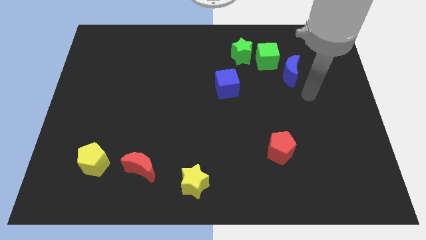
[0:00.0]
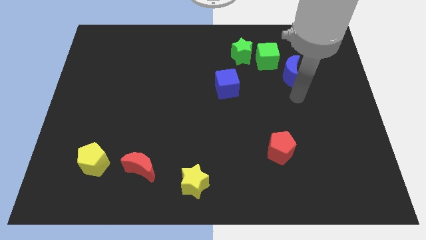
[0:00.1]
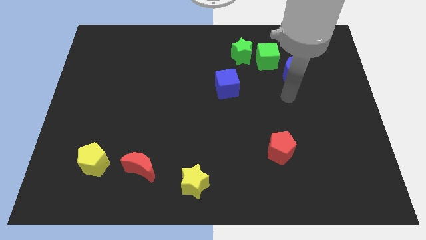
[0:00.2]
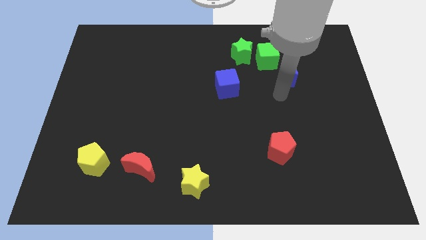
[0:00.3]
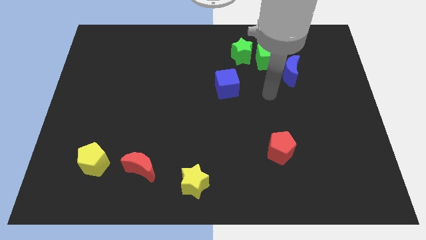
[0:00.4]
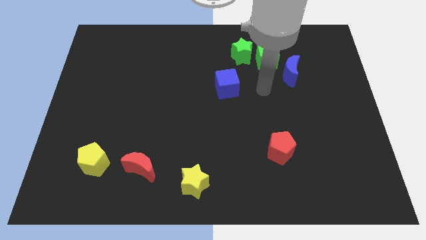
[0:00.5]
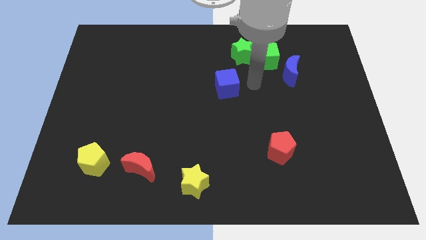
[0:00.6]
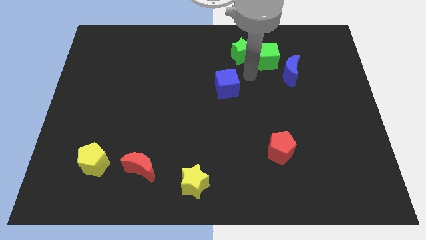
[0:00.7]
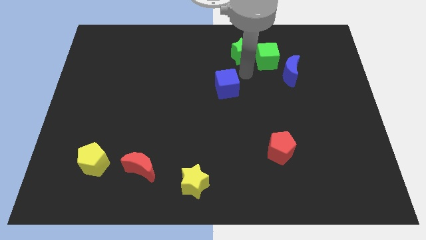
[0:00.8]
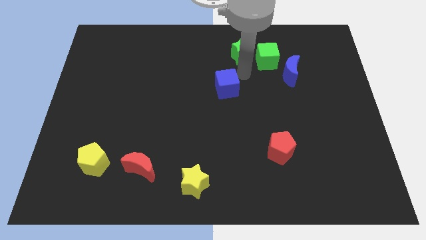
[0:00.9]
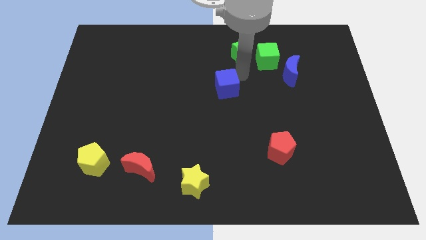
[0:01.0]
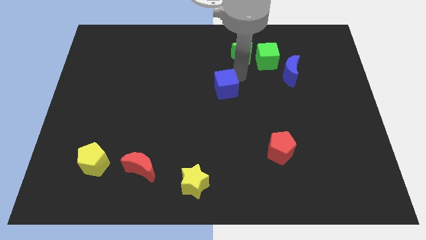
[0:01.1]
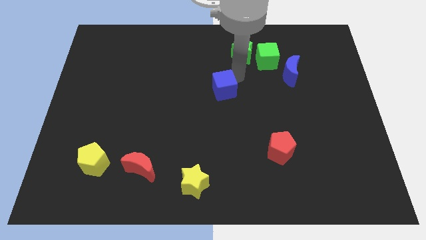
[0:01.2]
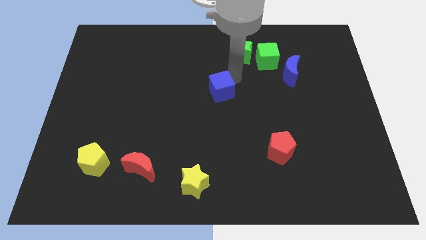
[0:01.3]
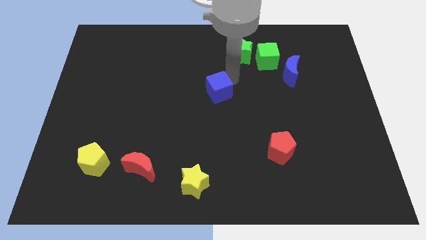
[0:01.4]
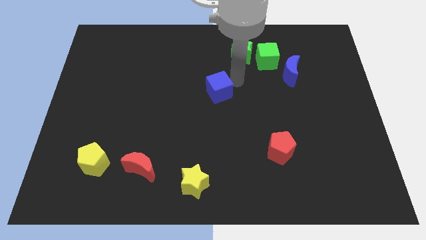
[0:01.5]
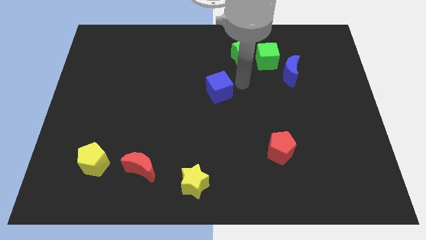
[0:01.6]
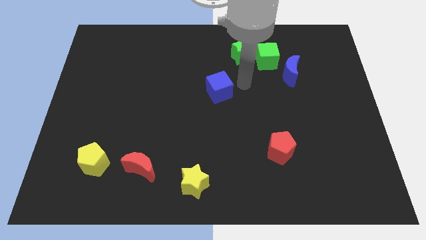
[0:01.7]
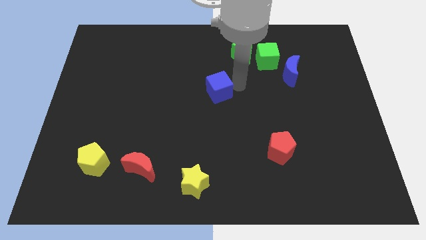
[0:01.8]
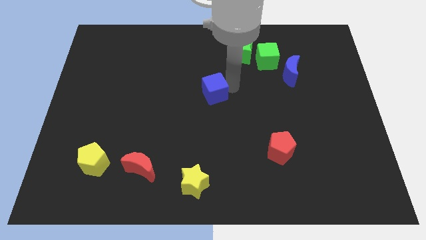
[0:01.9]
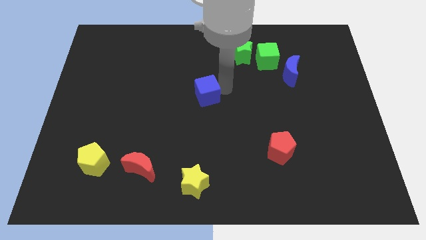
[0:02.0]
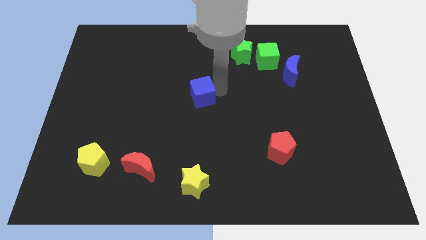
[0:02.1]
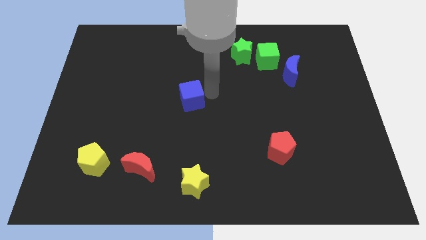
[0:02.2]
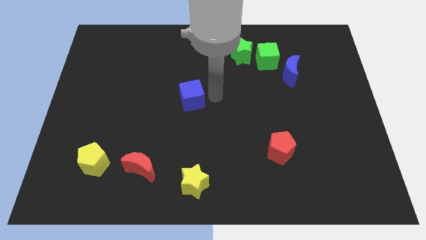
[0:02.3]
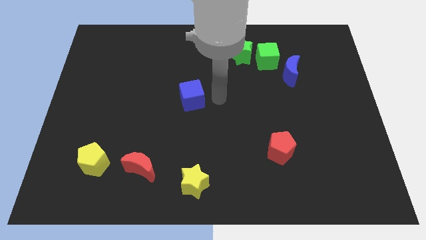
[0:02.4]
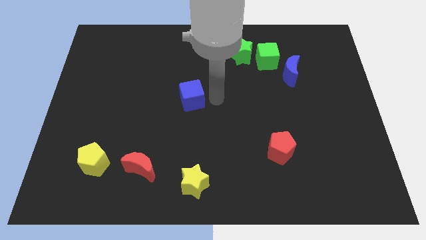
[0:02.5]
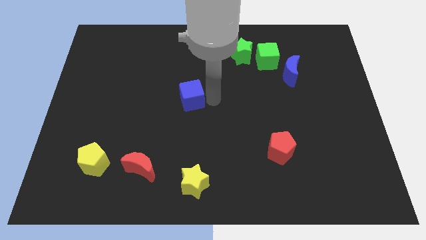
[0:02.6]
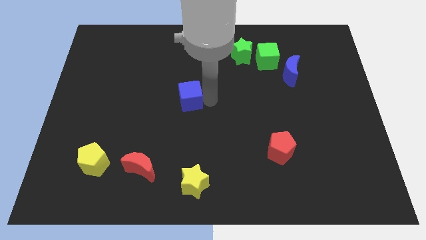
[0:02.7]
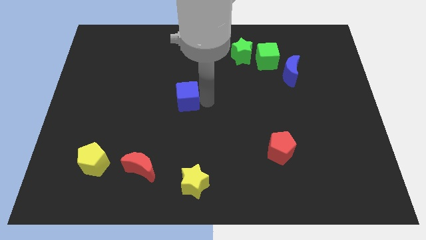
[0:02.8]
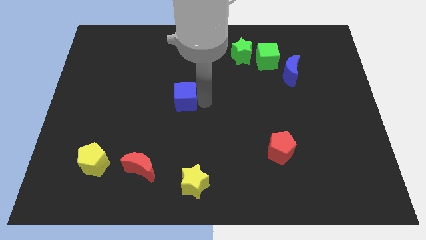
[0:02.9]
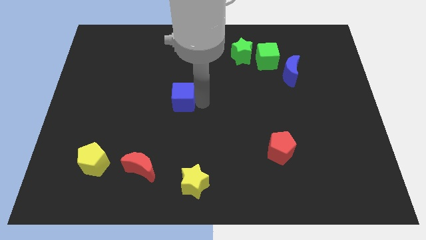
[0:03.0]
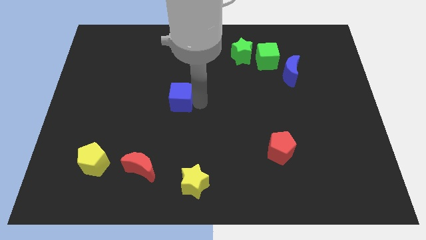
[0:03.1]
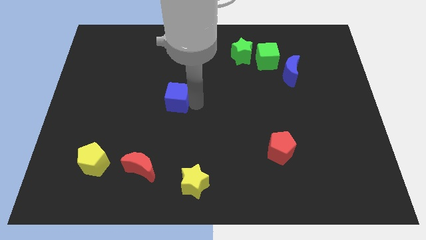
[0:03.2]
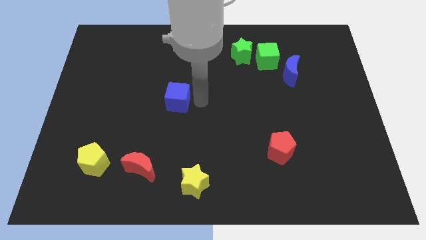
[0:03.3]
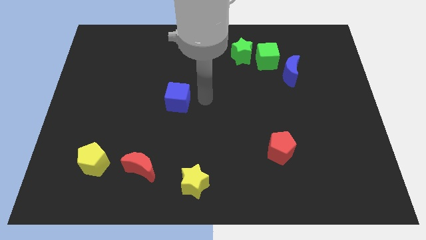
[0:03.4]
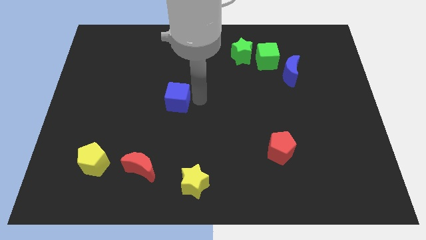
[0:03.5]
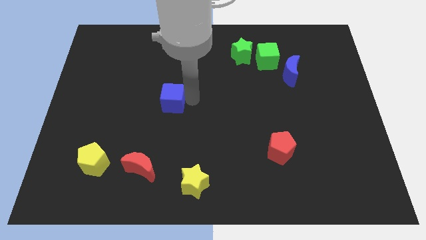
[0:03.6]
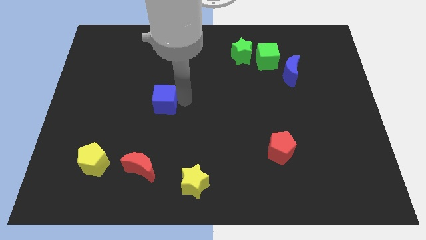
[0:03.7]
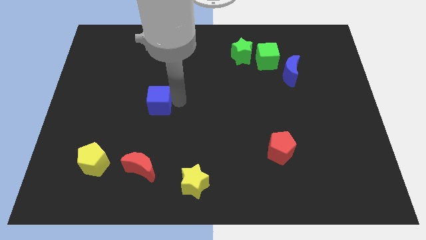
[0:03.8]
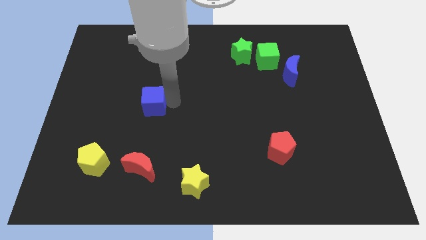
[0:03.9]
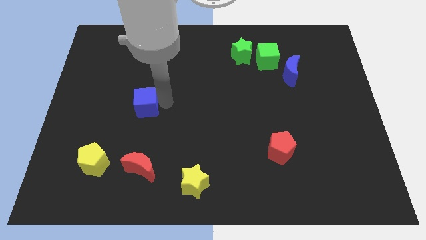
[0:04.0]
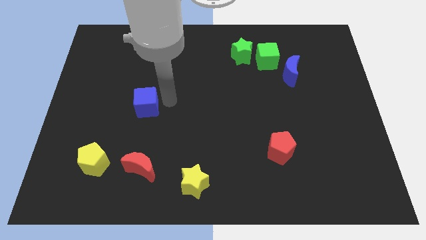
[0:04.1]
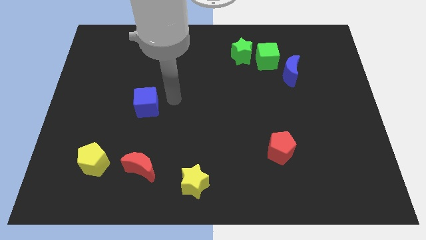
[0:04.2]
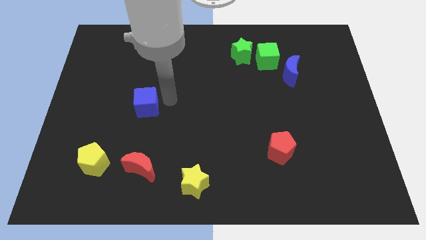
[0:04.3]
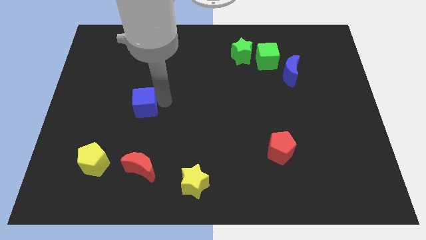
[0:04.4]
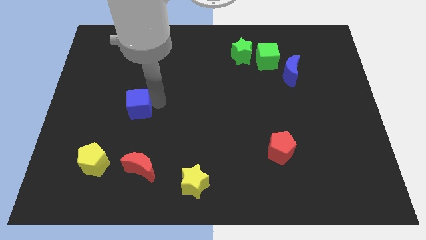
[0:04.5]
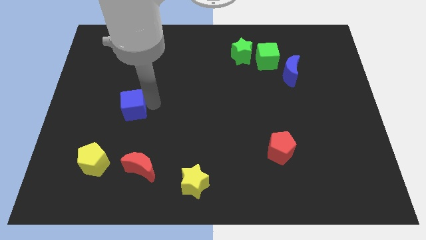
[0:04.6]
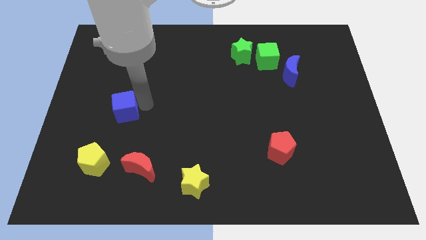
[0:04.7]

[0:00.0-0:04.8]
move the blue cube to the top side of the yellow pentagon

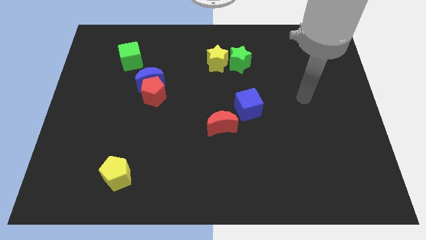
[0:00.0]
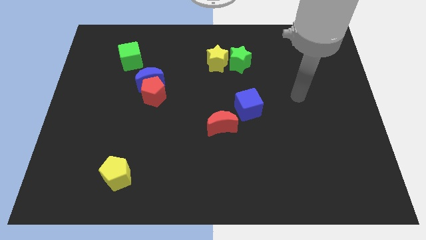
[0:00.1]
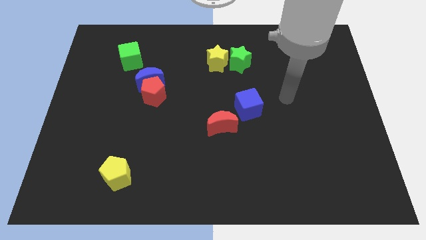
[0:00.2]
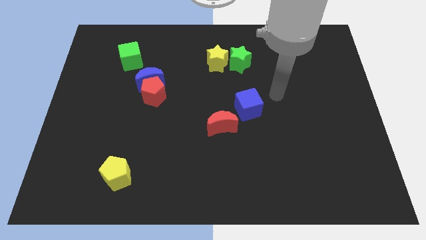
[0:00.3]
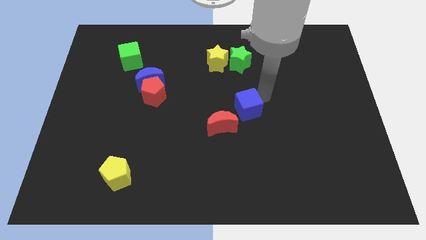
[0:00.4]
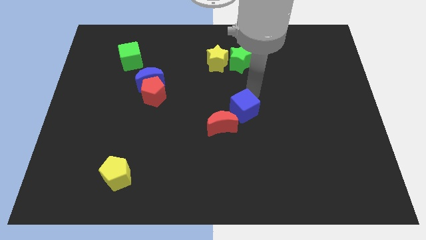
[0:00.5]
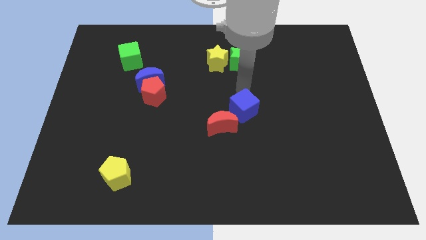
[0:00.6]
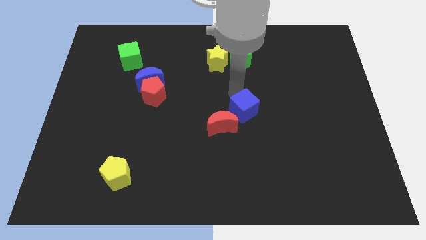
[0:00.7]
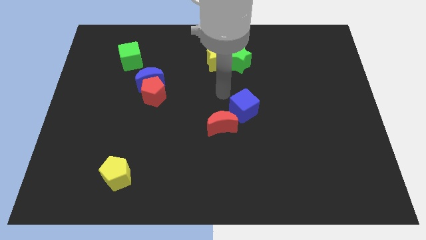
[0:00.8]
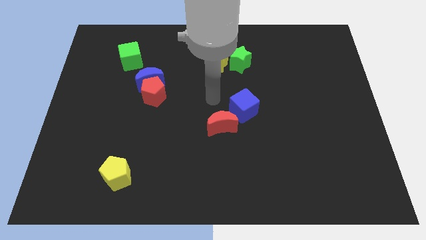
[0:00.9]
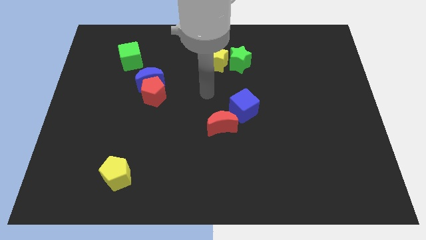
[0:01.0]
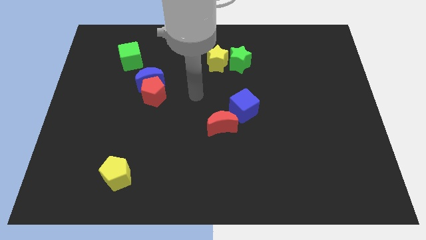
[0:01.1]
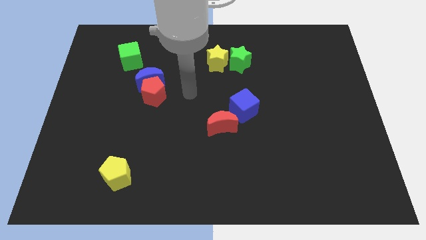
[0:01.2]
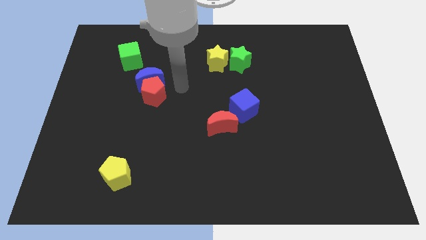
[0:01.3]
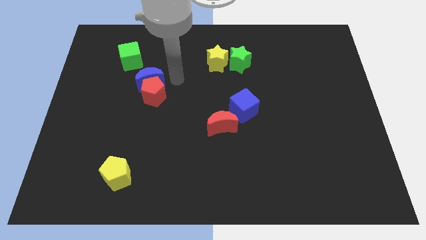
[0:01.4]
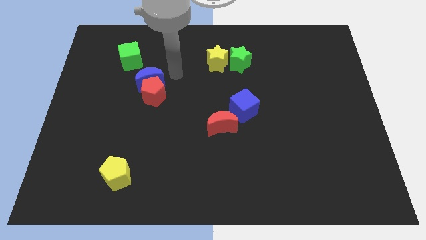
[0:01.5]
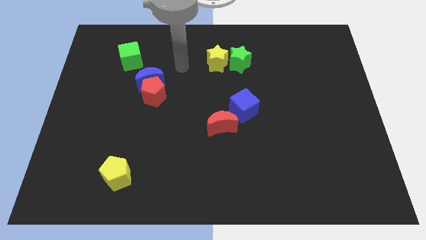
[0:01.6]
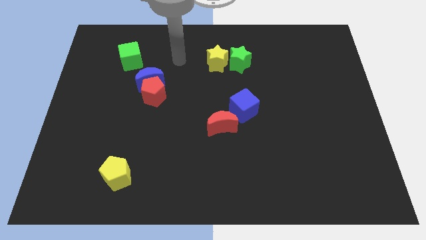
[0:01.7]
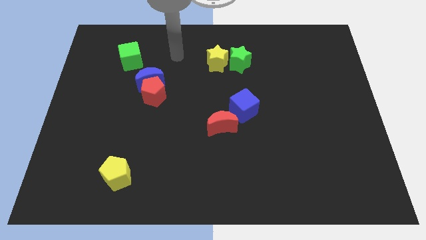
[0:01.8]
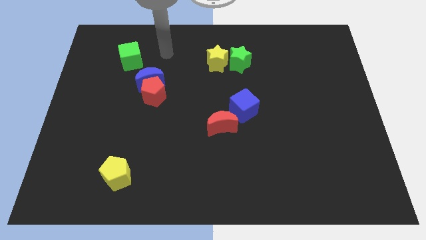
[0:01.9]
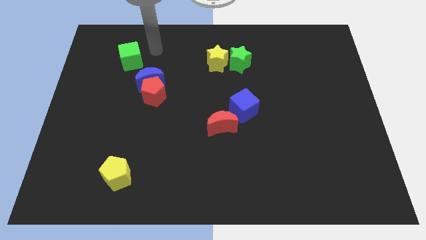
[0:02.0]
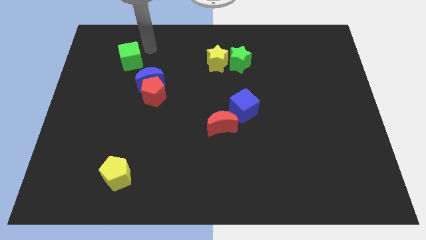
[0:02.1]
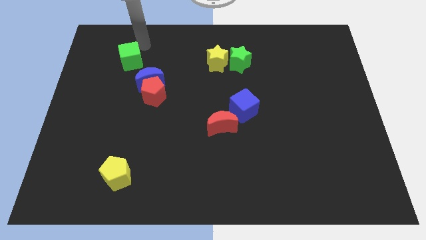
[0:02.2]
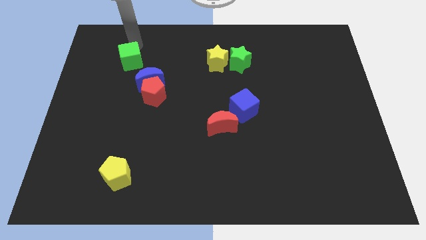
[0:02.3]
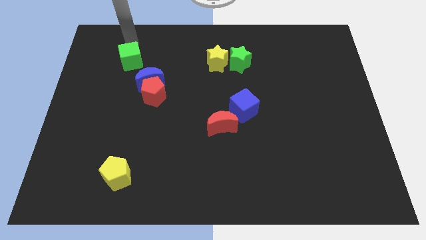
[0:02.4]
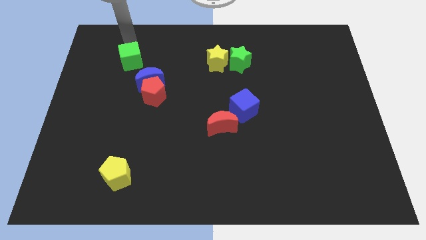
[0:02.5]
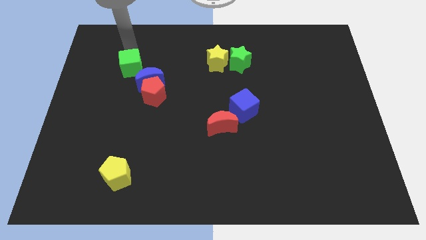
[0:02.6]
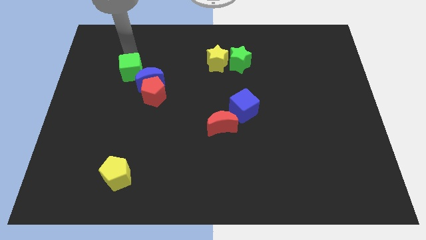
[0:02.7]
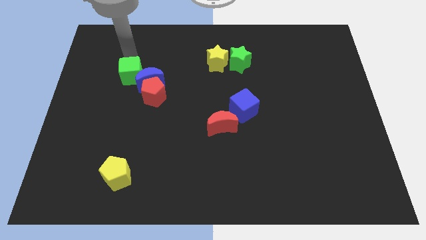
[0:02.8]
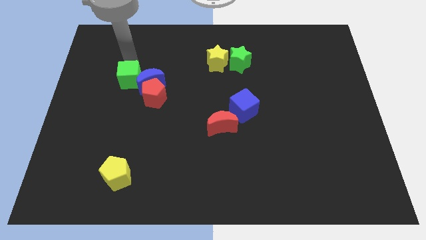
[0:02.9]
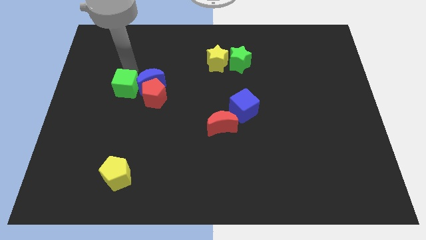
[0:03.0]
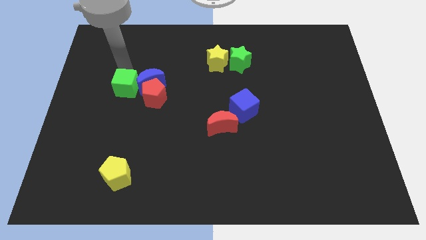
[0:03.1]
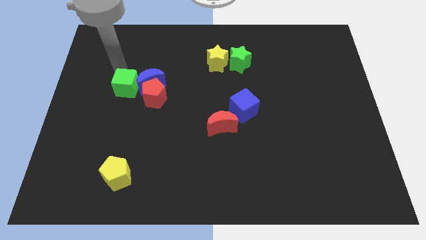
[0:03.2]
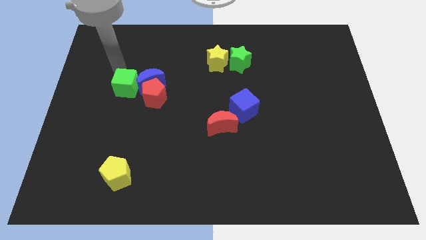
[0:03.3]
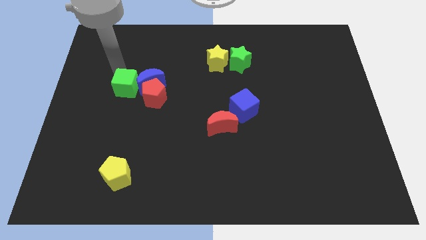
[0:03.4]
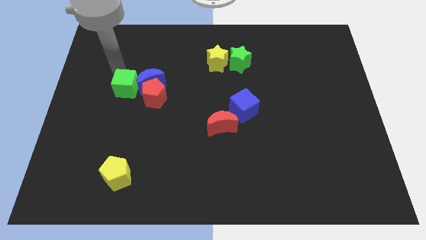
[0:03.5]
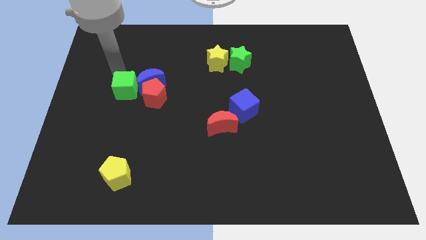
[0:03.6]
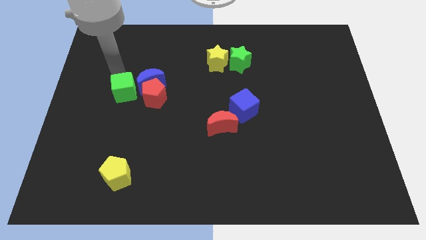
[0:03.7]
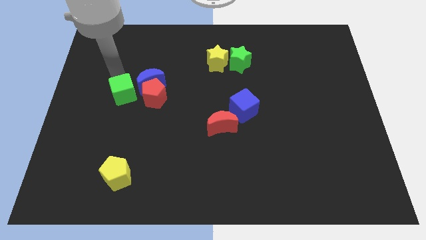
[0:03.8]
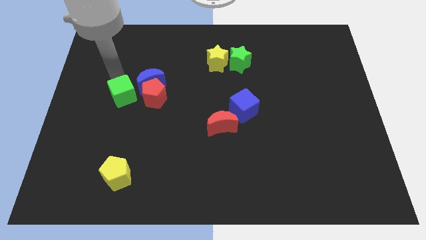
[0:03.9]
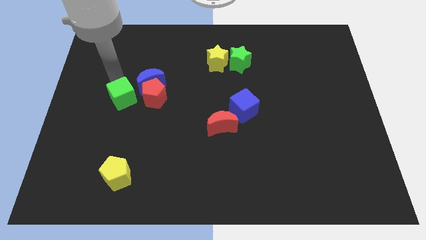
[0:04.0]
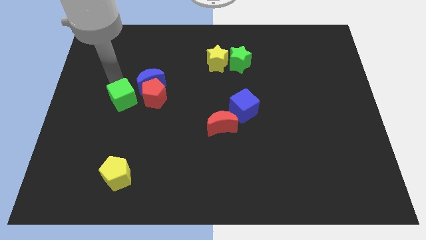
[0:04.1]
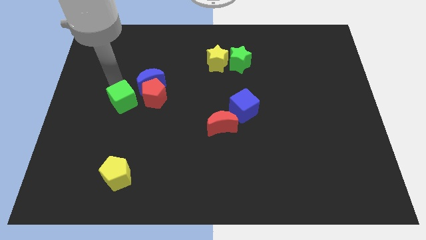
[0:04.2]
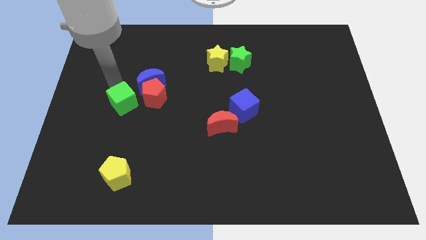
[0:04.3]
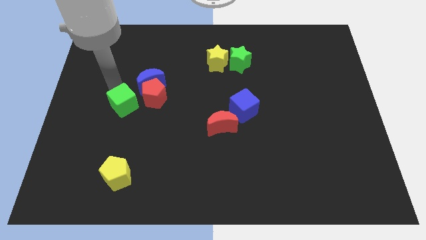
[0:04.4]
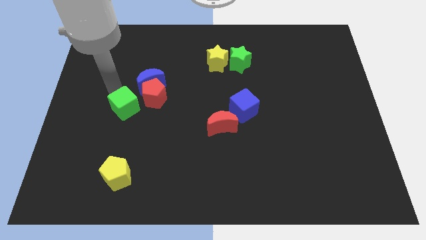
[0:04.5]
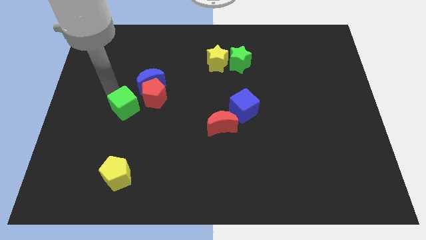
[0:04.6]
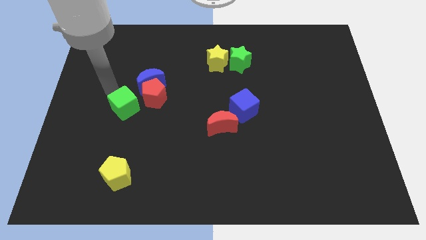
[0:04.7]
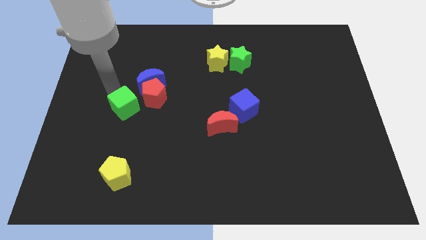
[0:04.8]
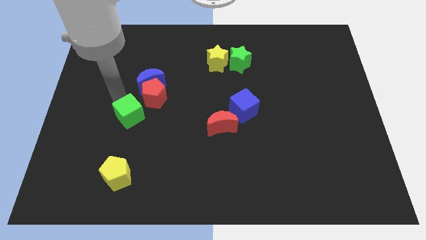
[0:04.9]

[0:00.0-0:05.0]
slide the green cube to the bottom side of the red pentagon
